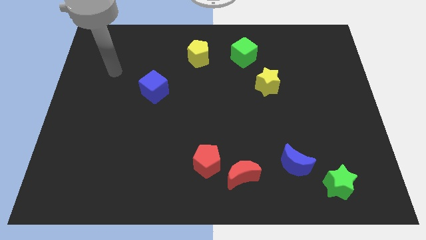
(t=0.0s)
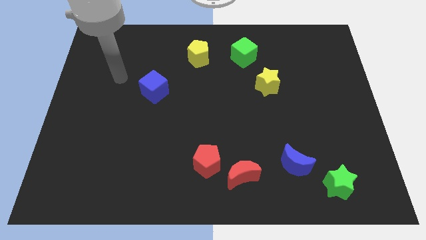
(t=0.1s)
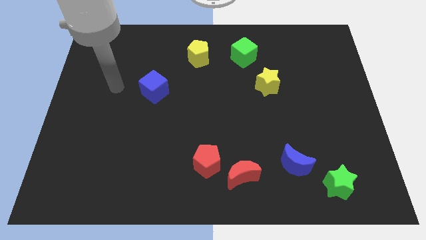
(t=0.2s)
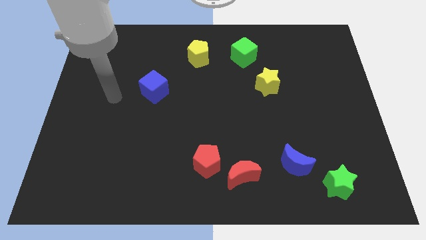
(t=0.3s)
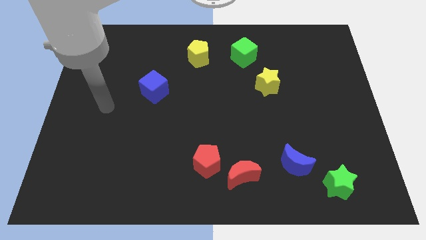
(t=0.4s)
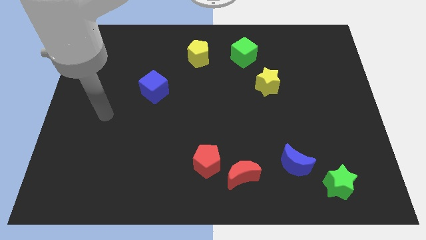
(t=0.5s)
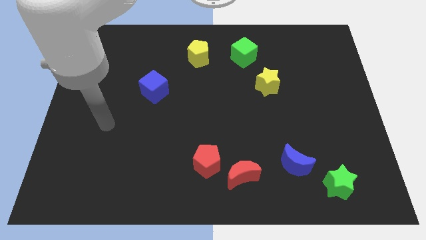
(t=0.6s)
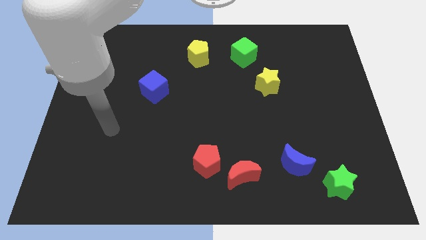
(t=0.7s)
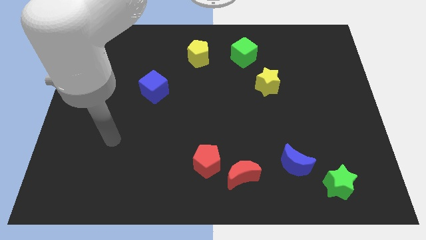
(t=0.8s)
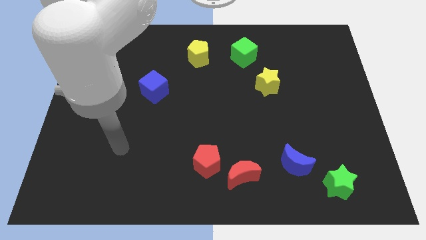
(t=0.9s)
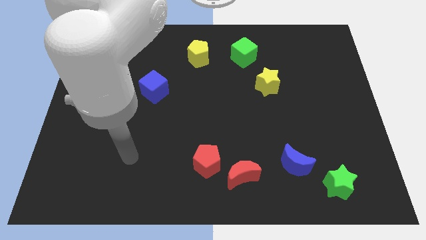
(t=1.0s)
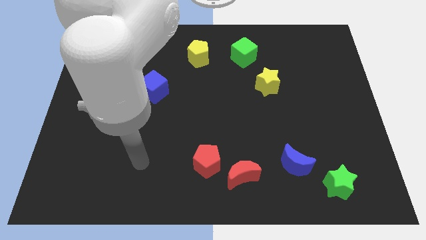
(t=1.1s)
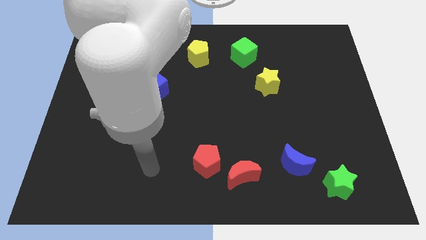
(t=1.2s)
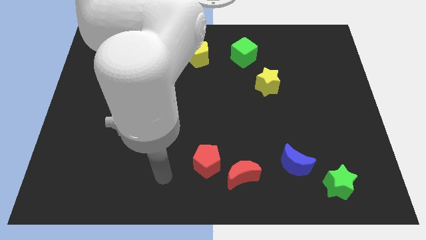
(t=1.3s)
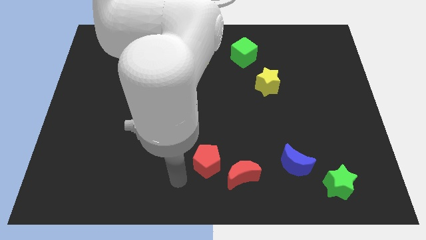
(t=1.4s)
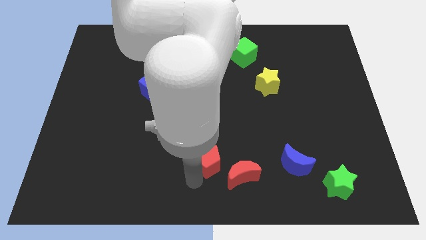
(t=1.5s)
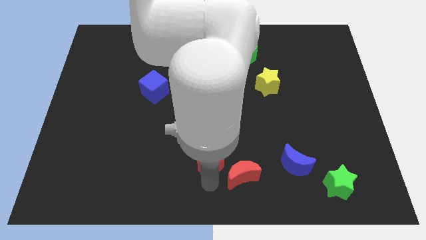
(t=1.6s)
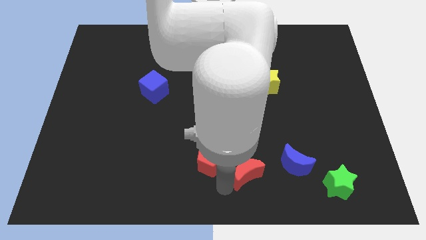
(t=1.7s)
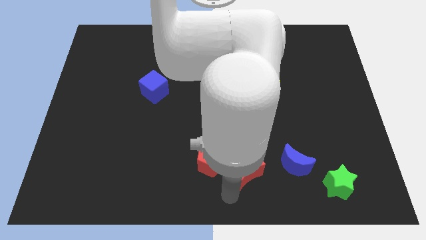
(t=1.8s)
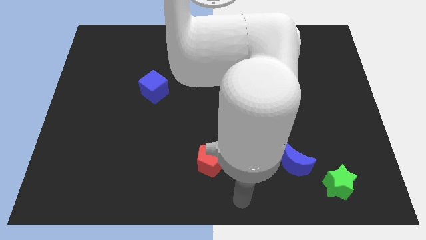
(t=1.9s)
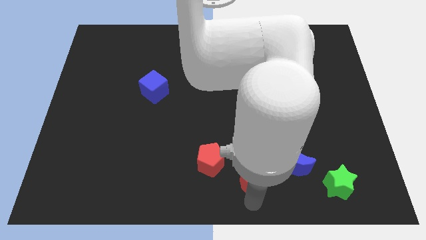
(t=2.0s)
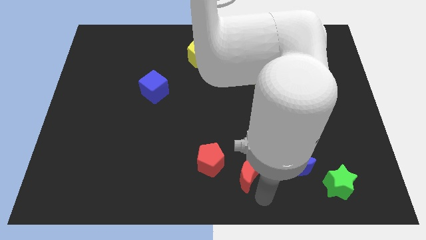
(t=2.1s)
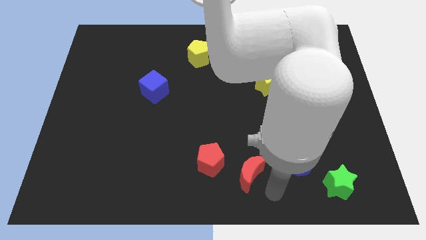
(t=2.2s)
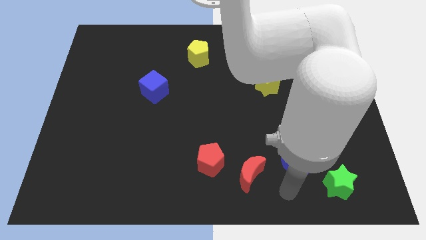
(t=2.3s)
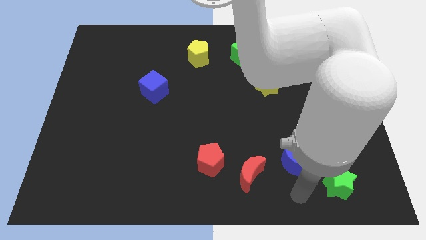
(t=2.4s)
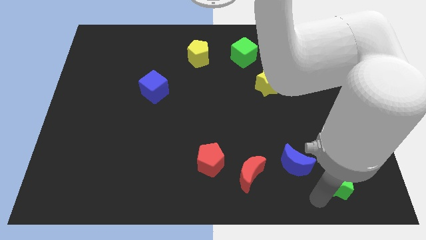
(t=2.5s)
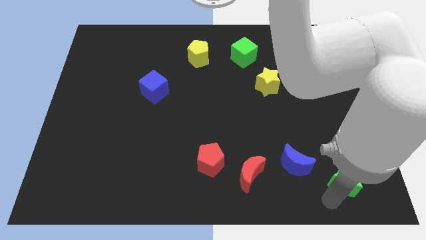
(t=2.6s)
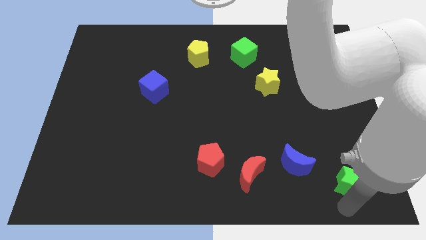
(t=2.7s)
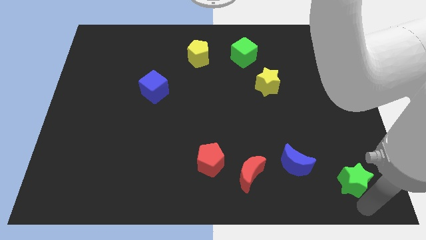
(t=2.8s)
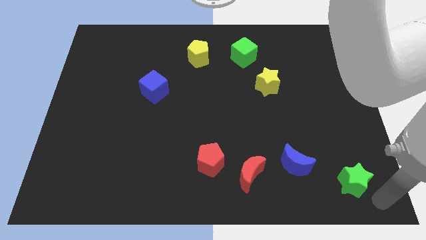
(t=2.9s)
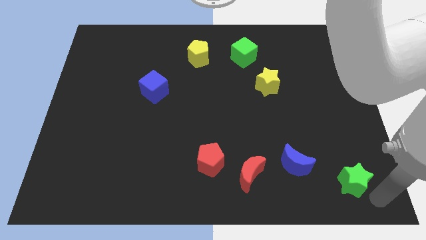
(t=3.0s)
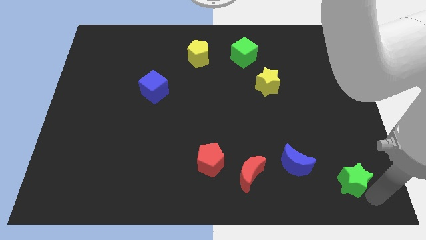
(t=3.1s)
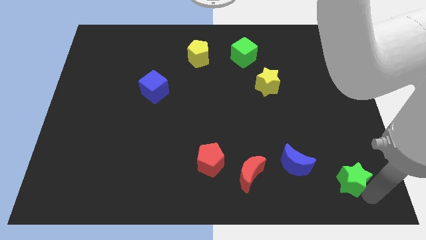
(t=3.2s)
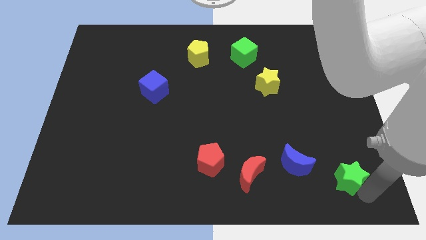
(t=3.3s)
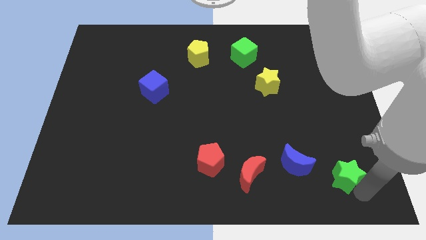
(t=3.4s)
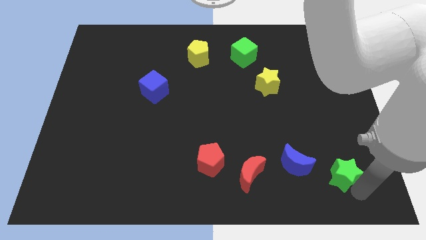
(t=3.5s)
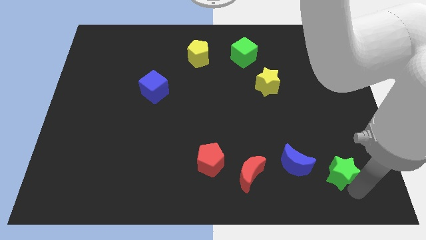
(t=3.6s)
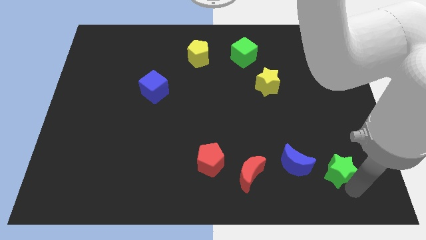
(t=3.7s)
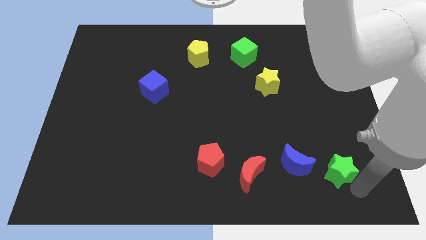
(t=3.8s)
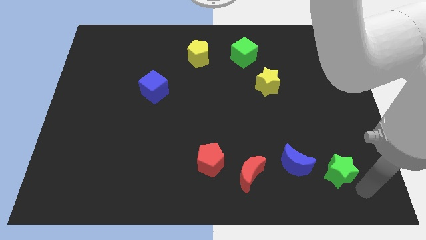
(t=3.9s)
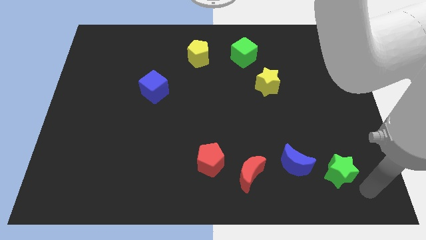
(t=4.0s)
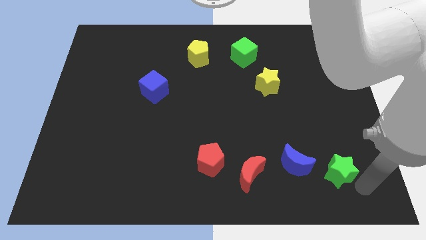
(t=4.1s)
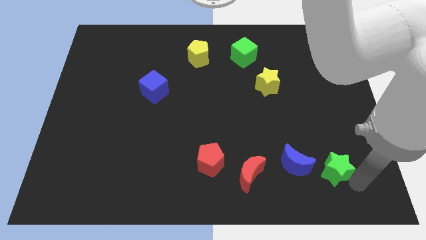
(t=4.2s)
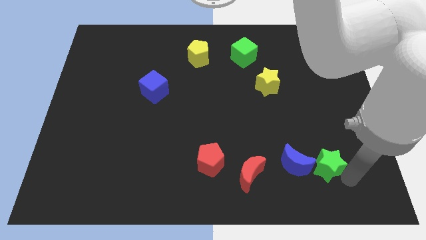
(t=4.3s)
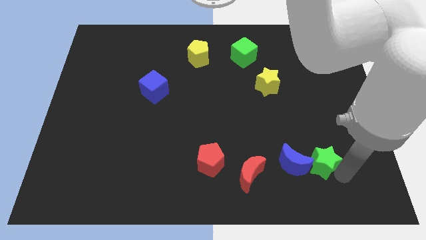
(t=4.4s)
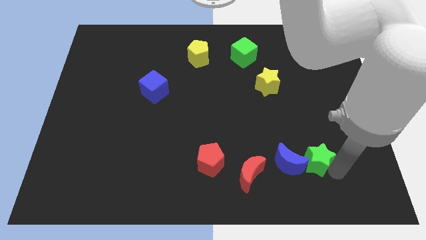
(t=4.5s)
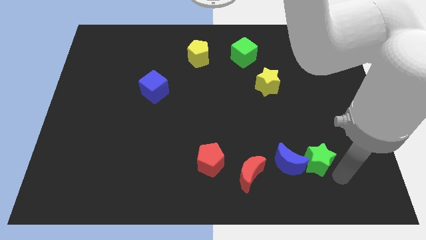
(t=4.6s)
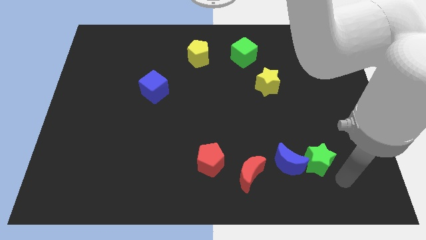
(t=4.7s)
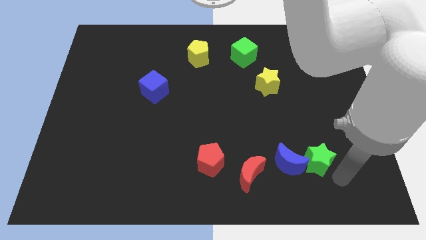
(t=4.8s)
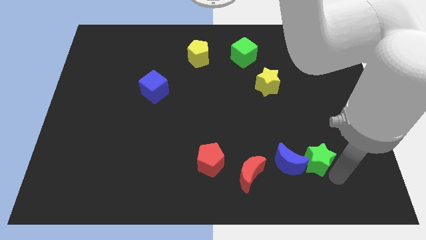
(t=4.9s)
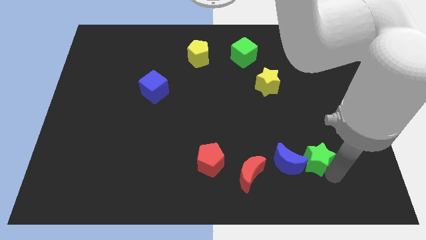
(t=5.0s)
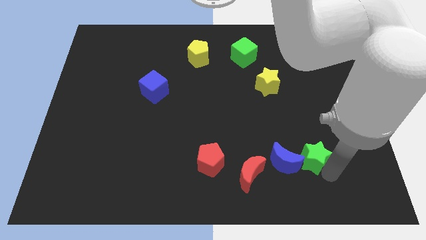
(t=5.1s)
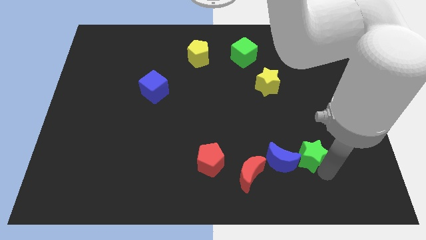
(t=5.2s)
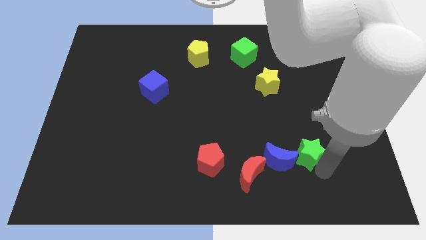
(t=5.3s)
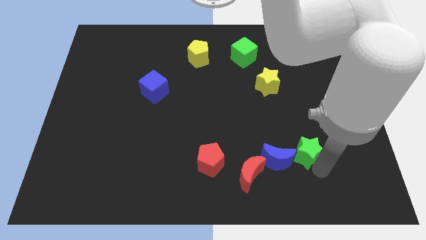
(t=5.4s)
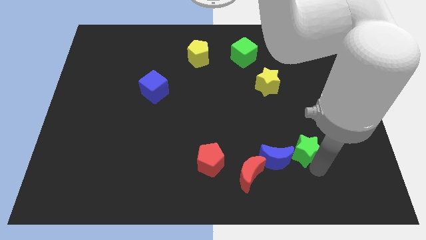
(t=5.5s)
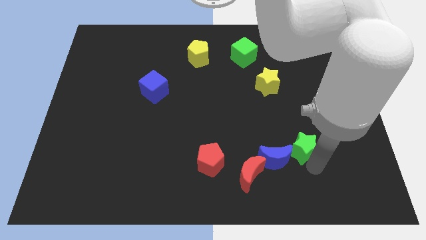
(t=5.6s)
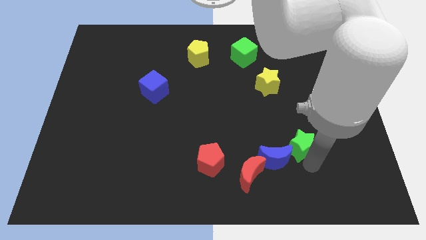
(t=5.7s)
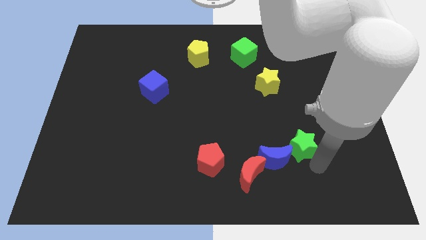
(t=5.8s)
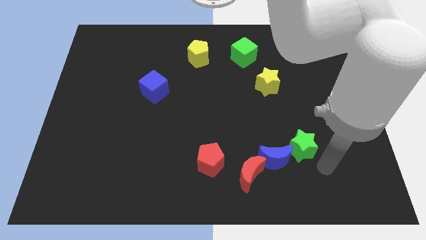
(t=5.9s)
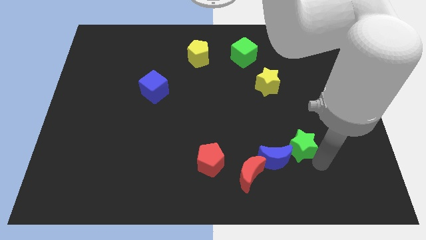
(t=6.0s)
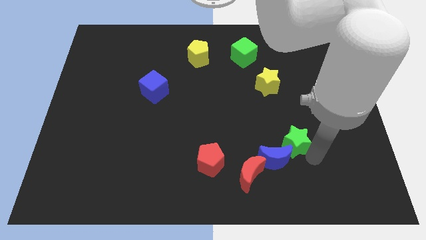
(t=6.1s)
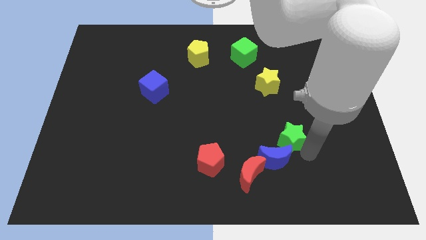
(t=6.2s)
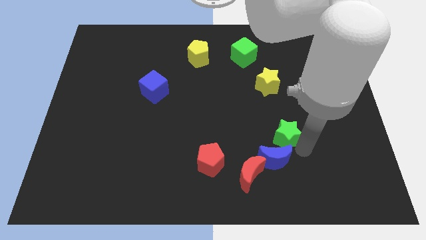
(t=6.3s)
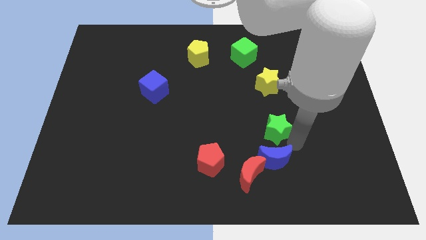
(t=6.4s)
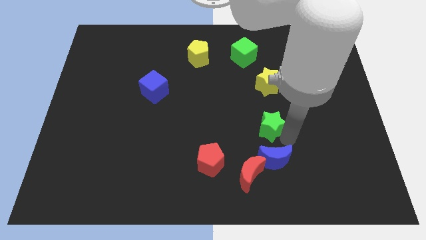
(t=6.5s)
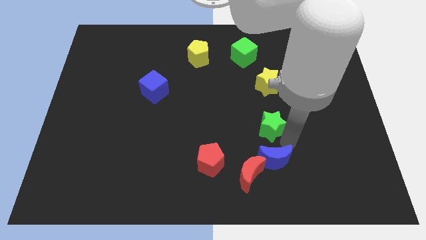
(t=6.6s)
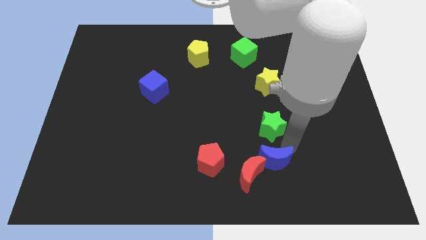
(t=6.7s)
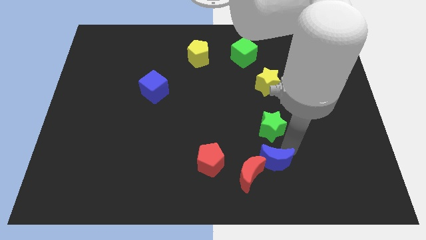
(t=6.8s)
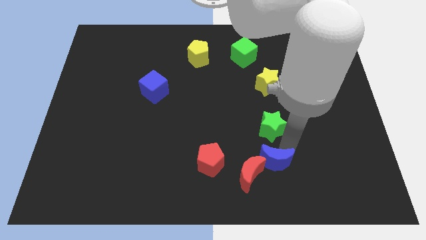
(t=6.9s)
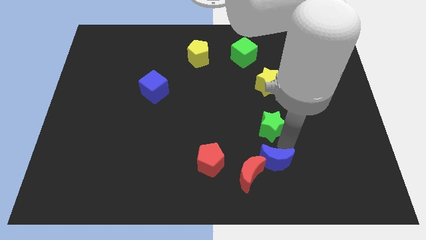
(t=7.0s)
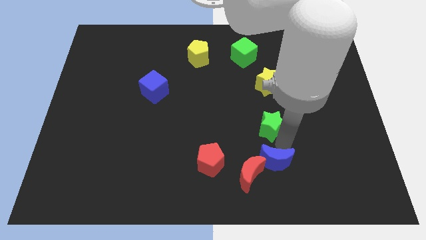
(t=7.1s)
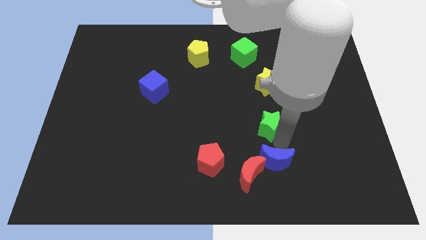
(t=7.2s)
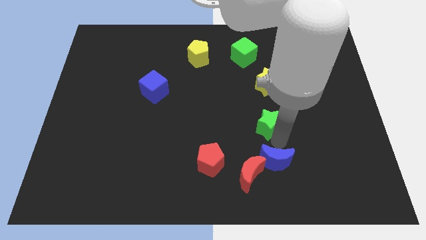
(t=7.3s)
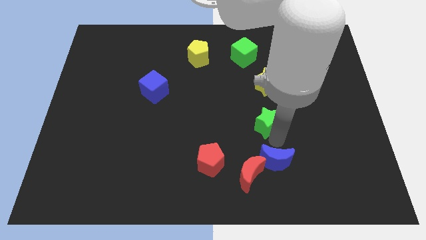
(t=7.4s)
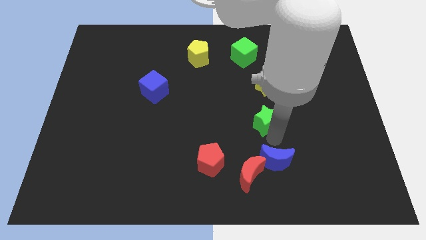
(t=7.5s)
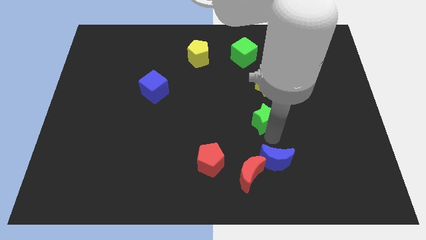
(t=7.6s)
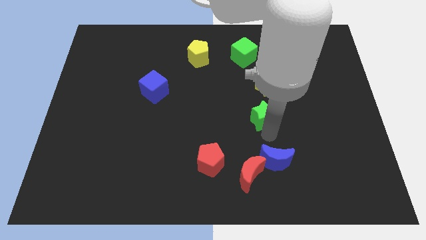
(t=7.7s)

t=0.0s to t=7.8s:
put the green star to the middle

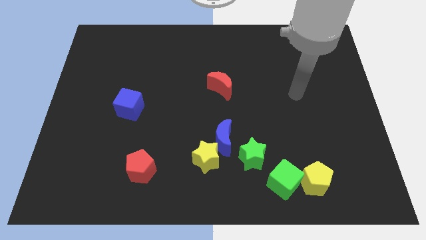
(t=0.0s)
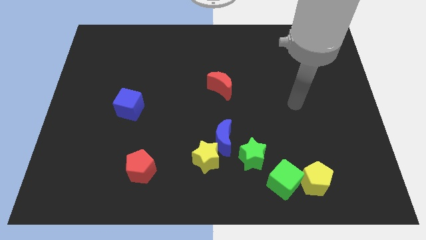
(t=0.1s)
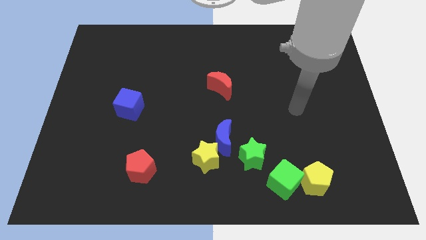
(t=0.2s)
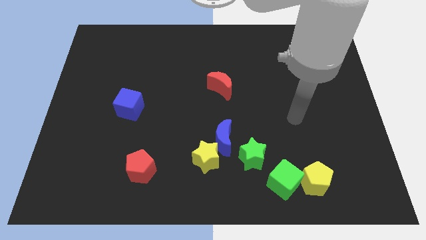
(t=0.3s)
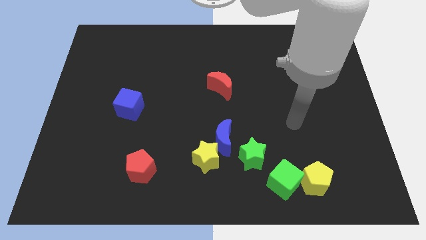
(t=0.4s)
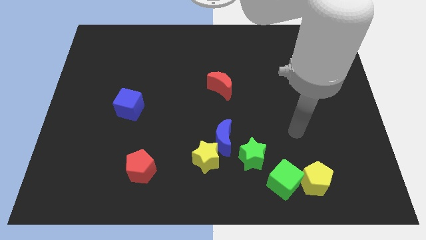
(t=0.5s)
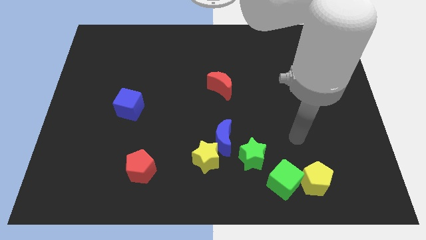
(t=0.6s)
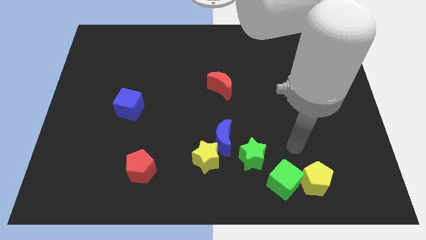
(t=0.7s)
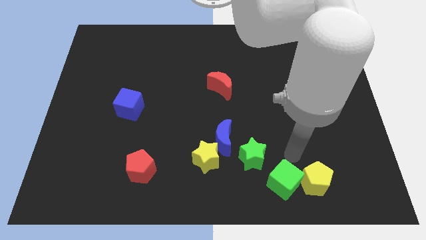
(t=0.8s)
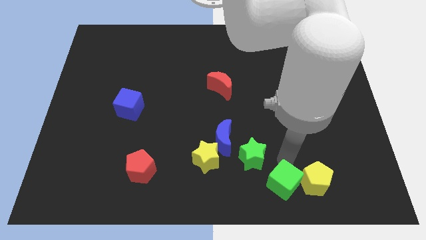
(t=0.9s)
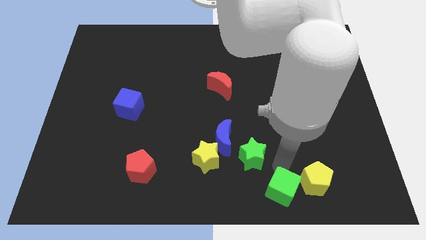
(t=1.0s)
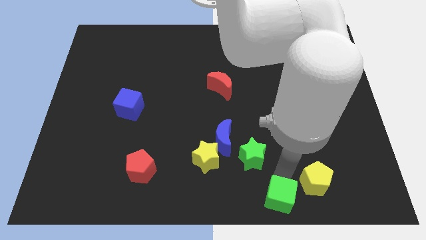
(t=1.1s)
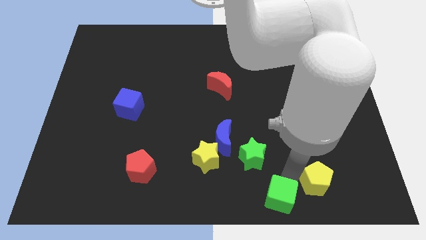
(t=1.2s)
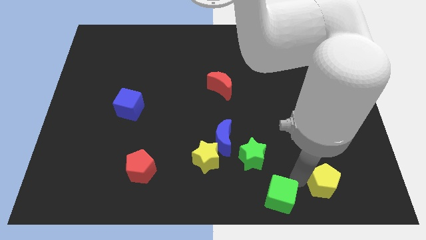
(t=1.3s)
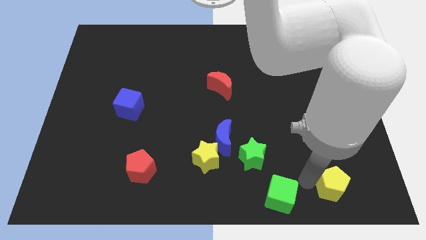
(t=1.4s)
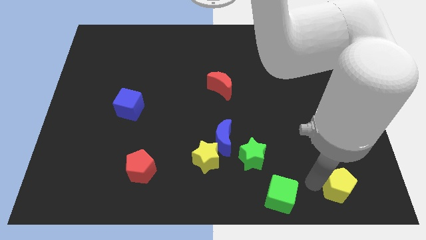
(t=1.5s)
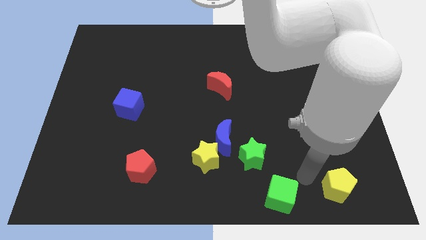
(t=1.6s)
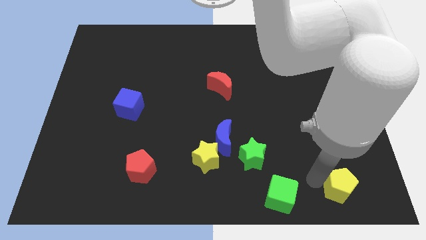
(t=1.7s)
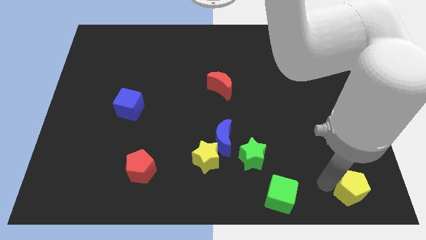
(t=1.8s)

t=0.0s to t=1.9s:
move the yellow pentagon to the bottom right corner
